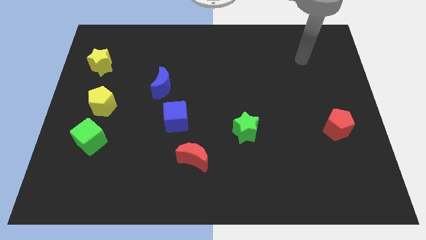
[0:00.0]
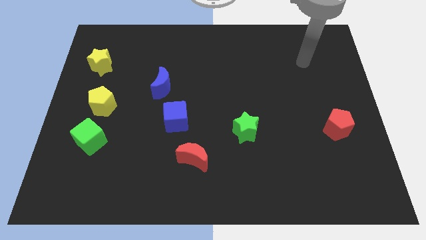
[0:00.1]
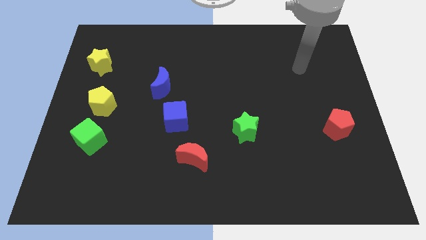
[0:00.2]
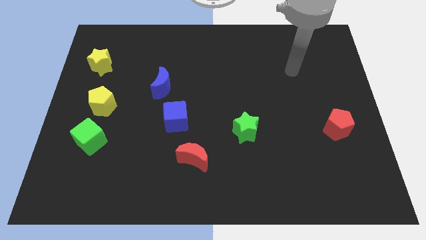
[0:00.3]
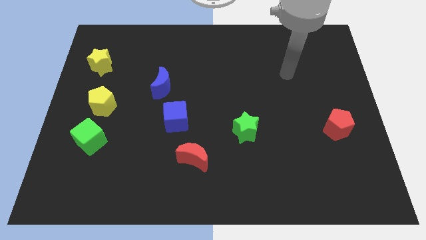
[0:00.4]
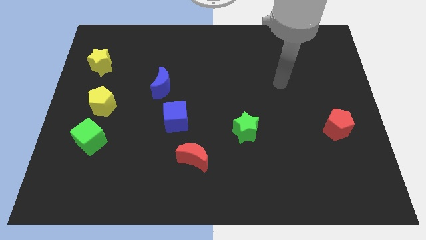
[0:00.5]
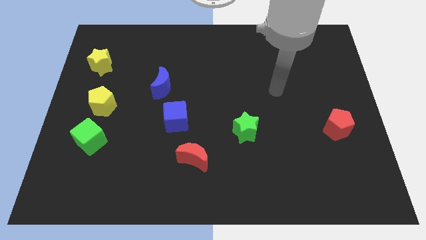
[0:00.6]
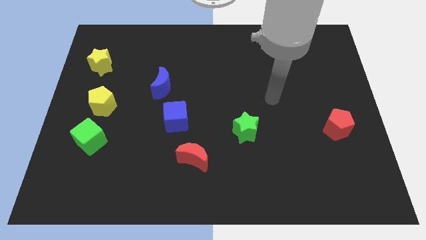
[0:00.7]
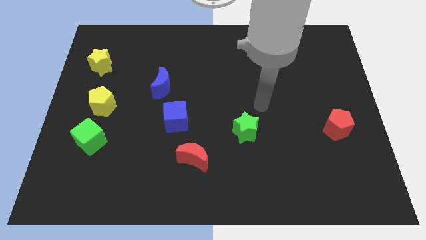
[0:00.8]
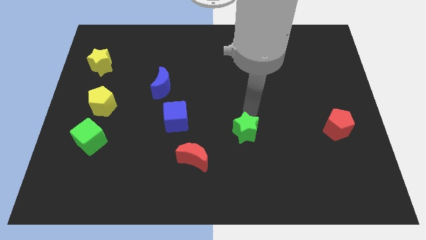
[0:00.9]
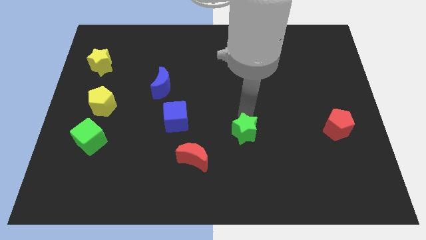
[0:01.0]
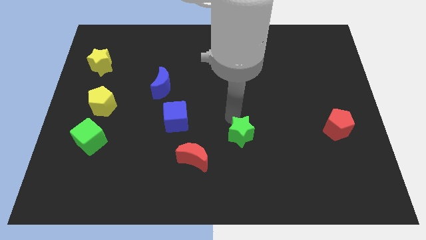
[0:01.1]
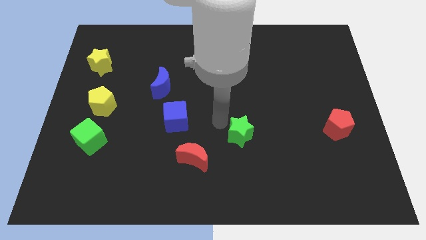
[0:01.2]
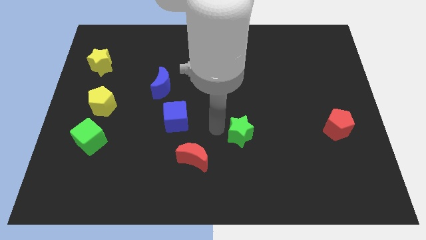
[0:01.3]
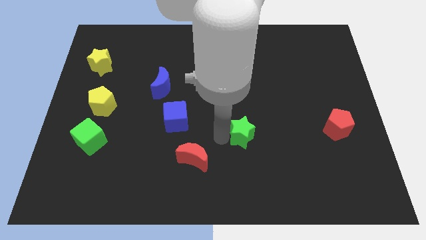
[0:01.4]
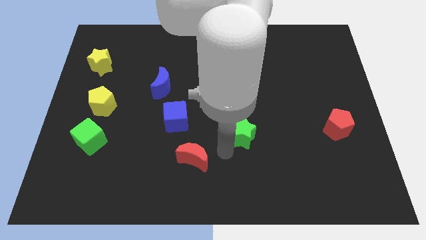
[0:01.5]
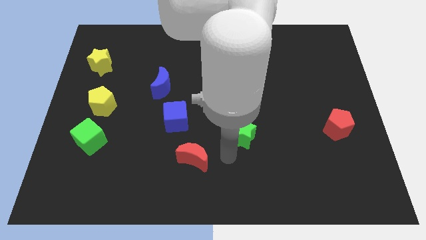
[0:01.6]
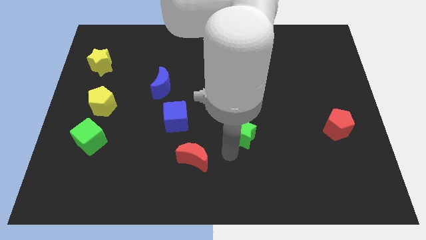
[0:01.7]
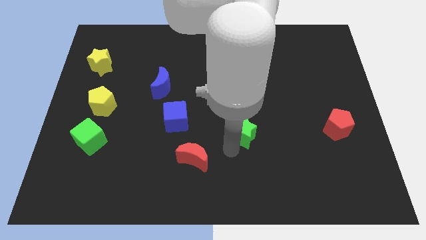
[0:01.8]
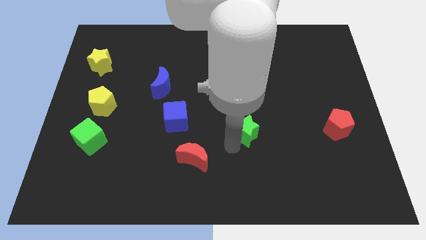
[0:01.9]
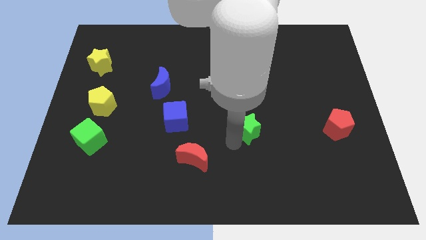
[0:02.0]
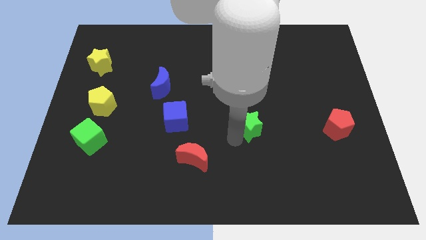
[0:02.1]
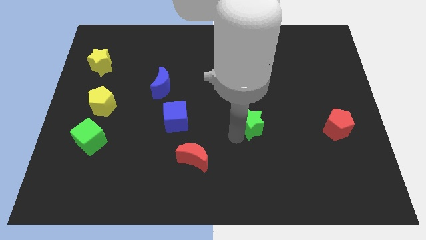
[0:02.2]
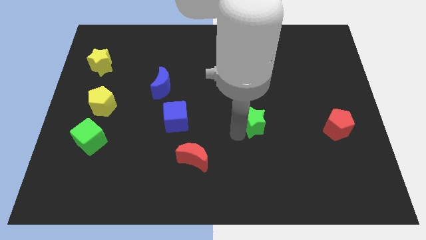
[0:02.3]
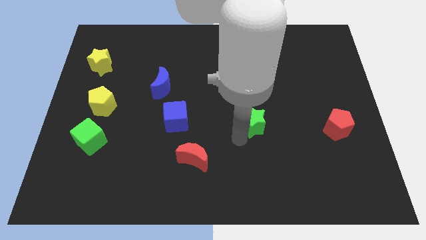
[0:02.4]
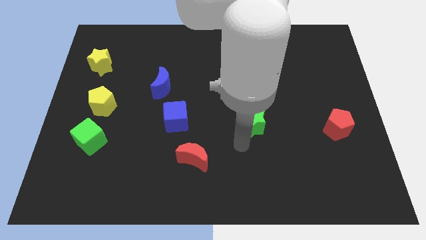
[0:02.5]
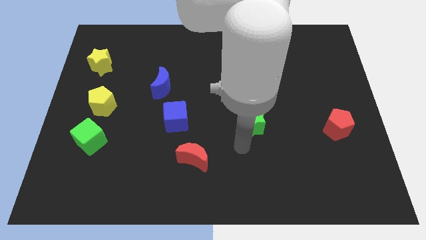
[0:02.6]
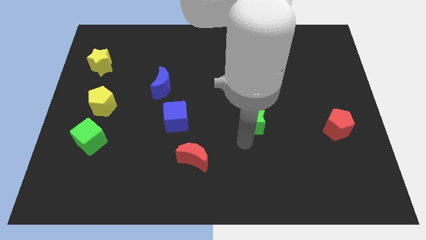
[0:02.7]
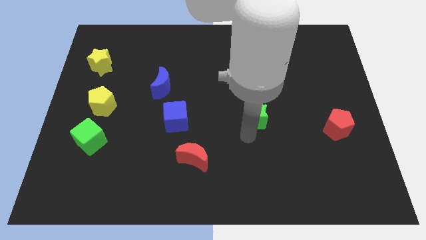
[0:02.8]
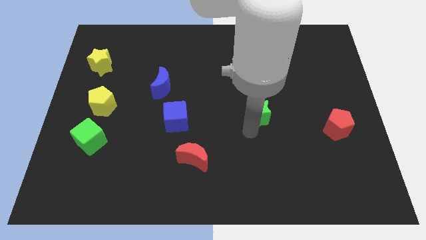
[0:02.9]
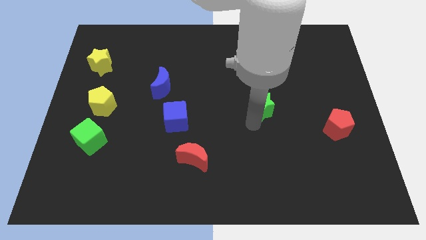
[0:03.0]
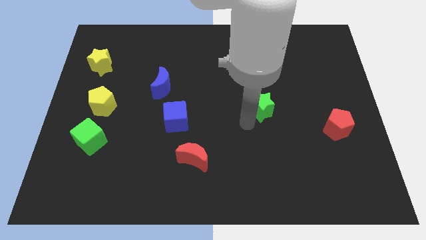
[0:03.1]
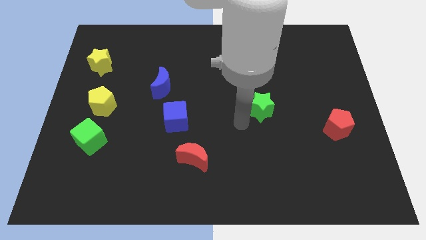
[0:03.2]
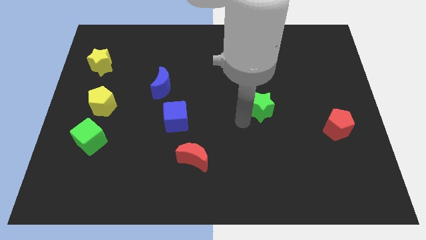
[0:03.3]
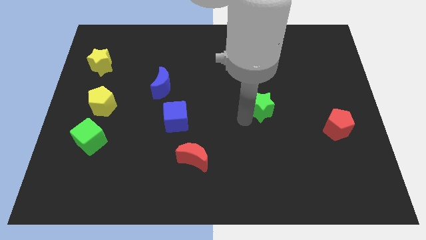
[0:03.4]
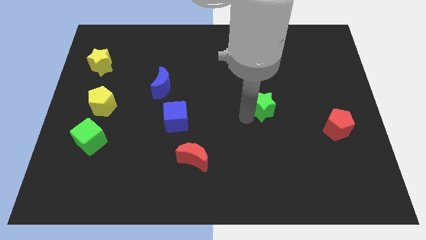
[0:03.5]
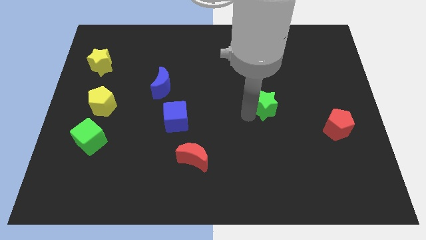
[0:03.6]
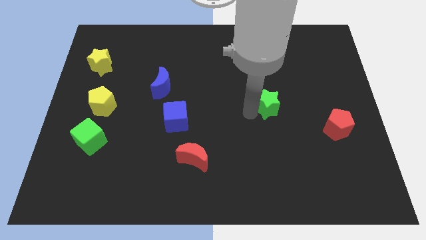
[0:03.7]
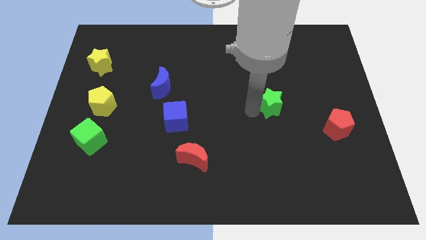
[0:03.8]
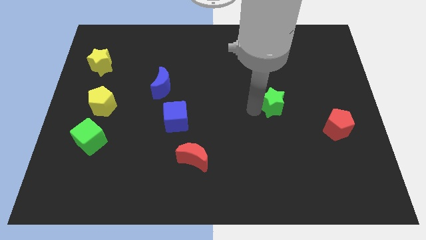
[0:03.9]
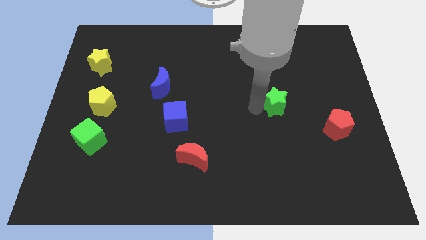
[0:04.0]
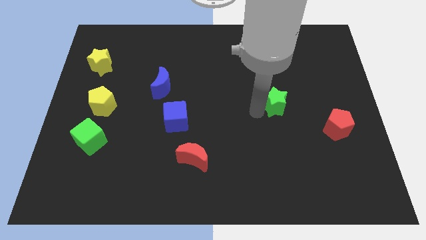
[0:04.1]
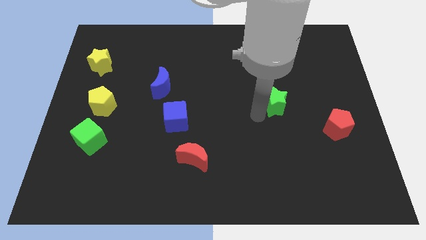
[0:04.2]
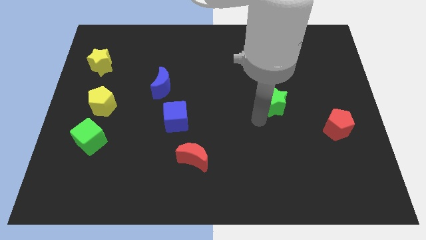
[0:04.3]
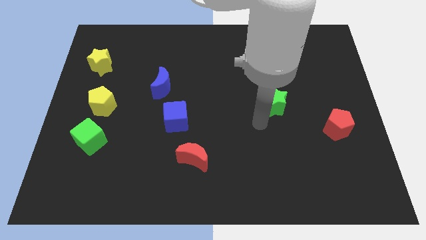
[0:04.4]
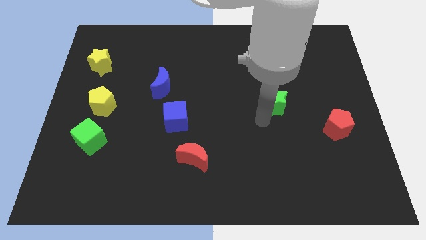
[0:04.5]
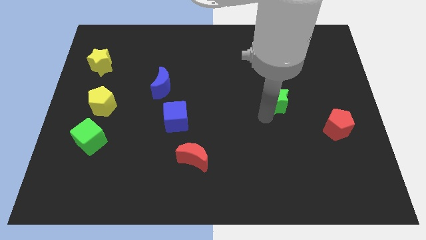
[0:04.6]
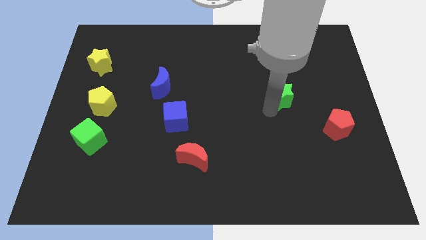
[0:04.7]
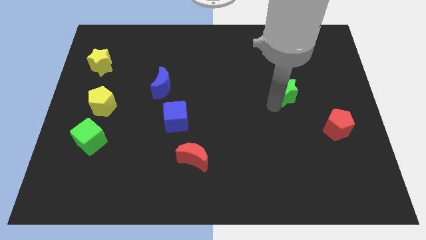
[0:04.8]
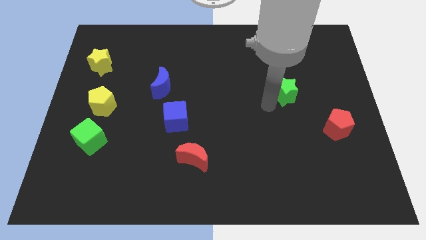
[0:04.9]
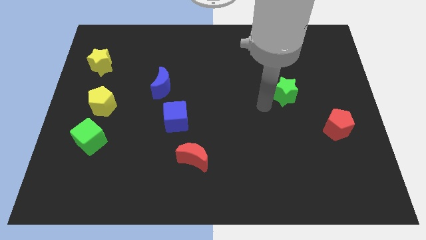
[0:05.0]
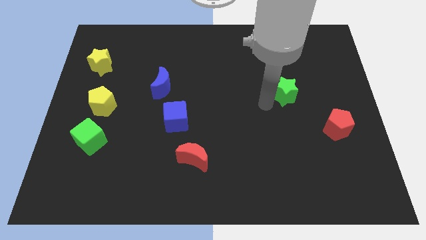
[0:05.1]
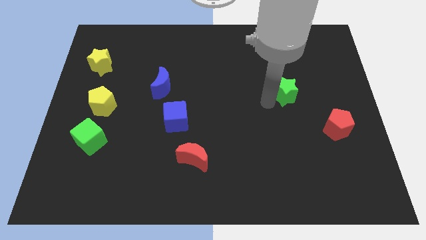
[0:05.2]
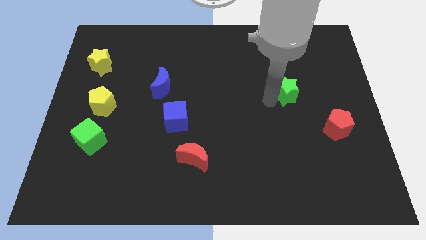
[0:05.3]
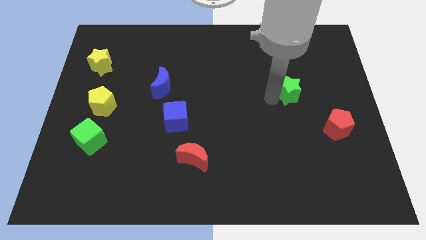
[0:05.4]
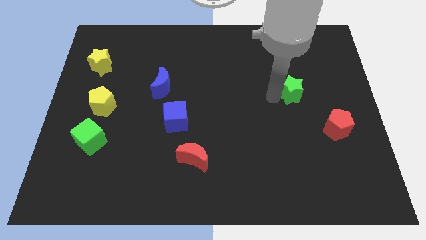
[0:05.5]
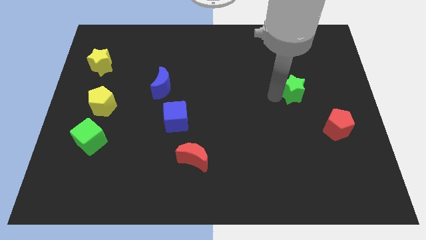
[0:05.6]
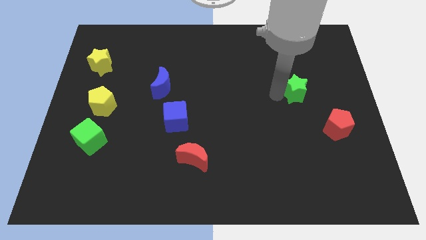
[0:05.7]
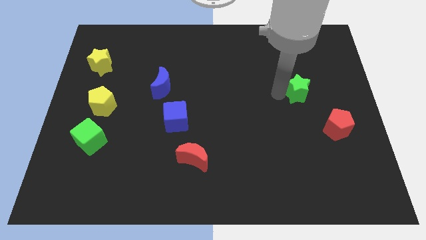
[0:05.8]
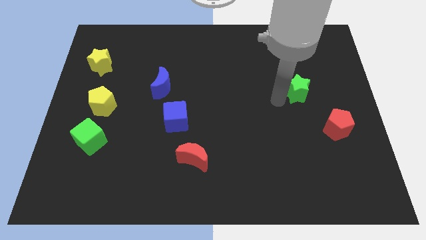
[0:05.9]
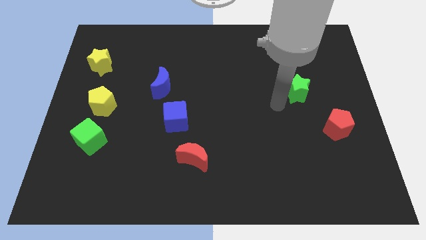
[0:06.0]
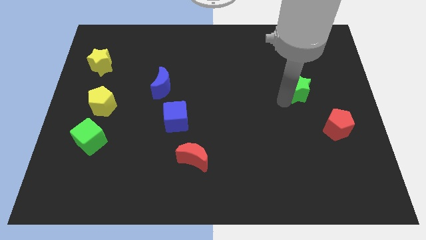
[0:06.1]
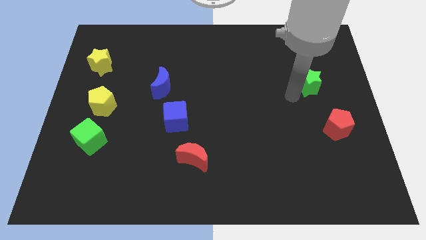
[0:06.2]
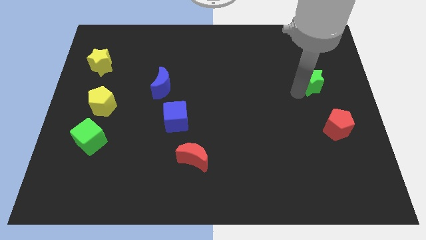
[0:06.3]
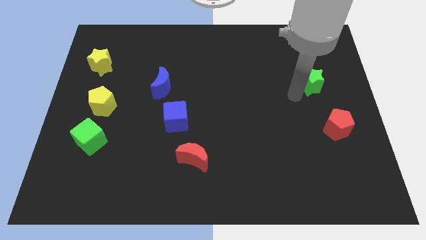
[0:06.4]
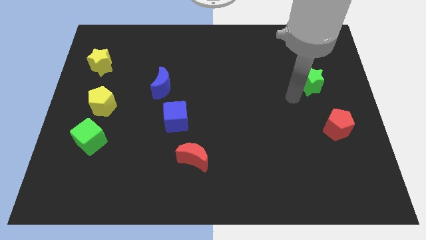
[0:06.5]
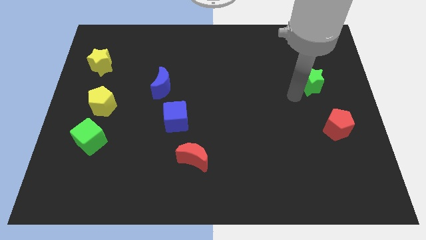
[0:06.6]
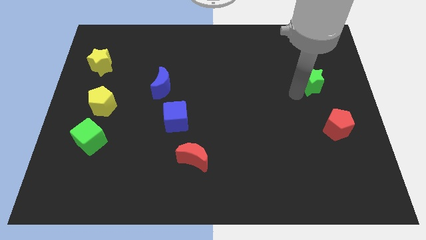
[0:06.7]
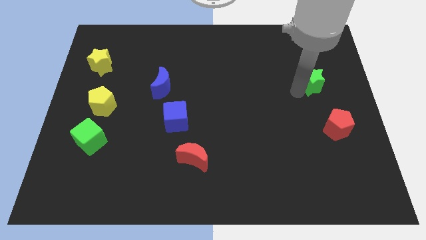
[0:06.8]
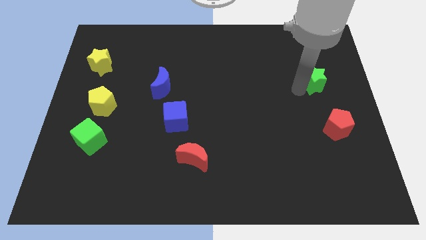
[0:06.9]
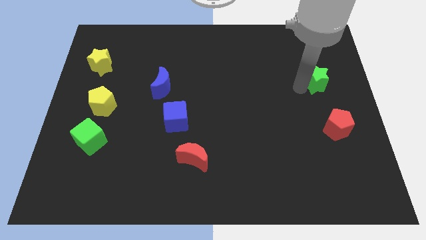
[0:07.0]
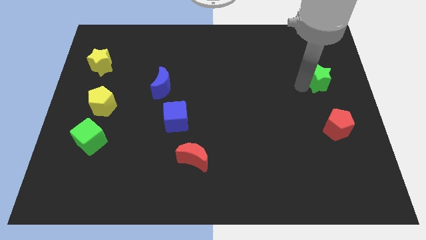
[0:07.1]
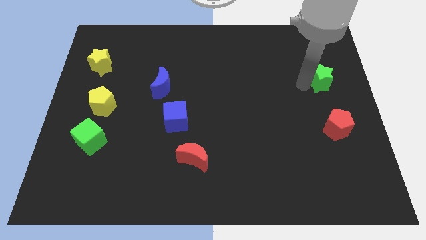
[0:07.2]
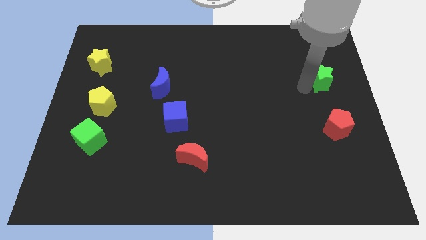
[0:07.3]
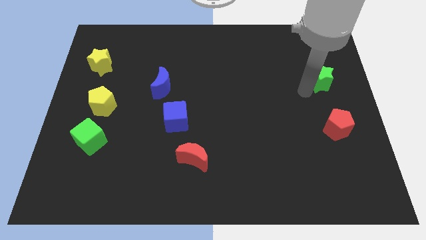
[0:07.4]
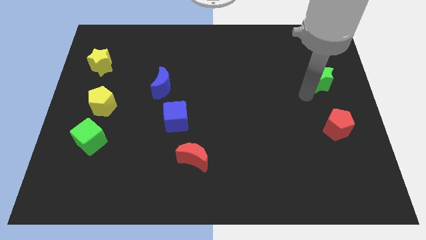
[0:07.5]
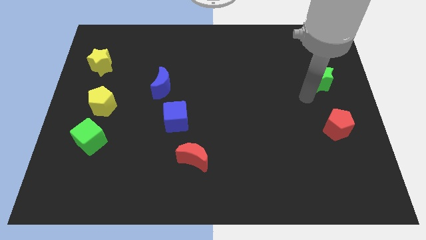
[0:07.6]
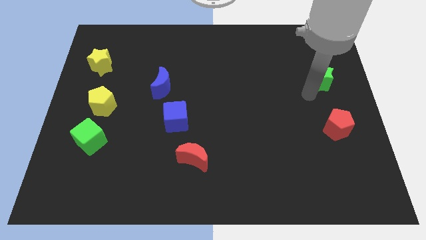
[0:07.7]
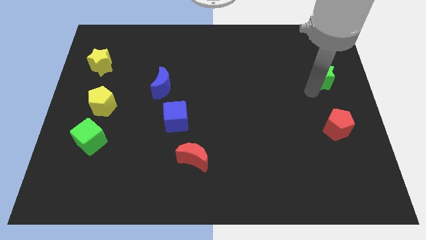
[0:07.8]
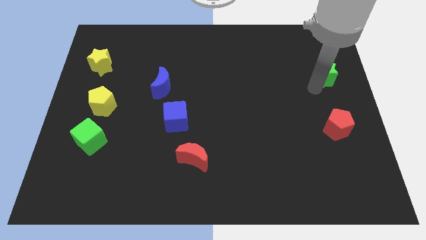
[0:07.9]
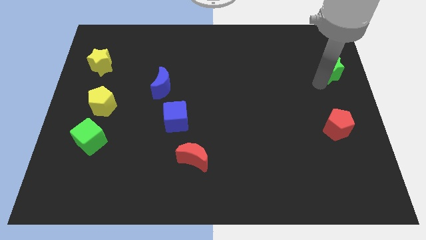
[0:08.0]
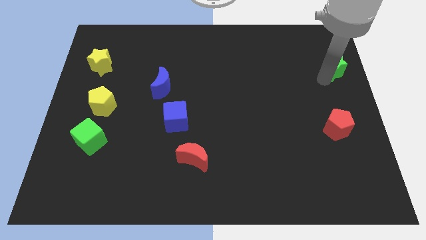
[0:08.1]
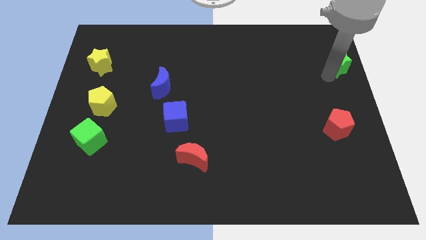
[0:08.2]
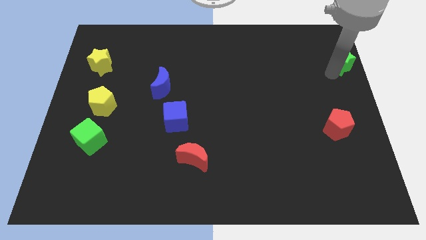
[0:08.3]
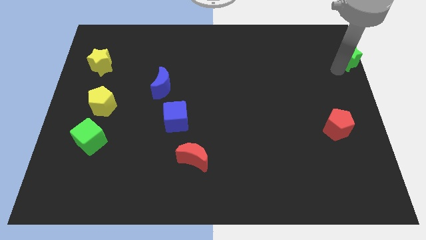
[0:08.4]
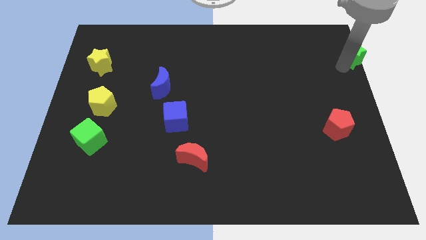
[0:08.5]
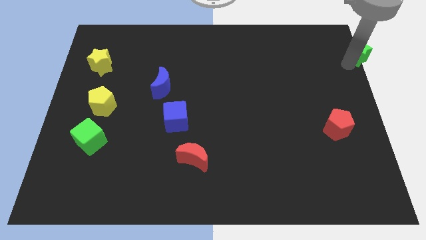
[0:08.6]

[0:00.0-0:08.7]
put the green star to the top right corner
